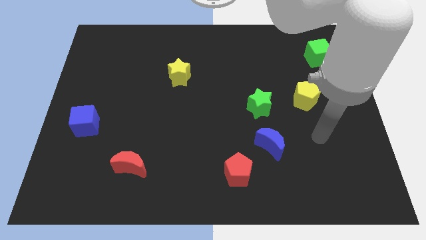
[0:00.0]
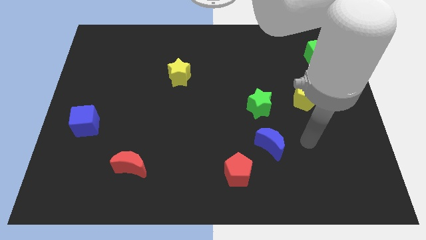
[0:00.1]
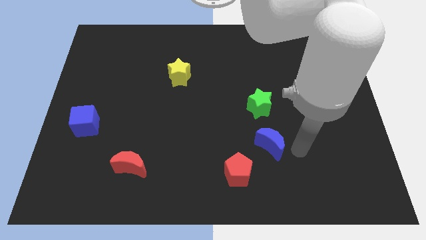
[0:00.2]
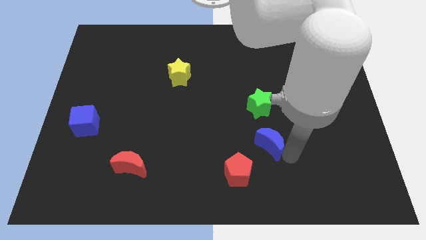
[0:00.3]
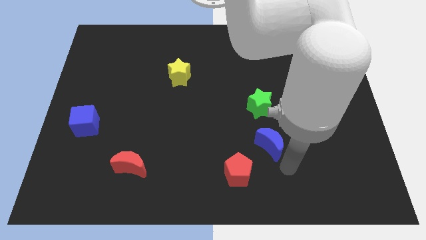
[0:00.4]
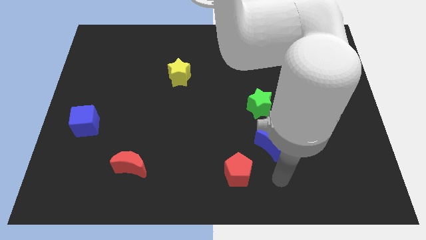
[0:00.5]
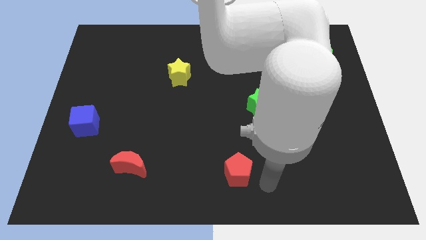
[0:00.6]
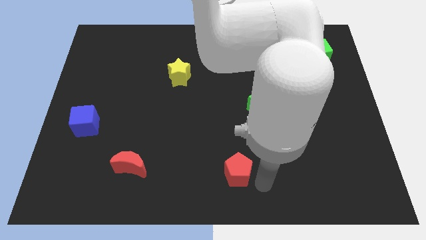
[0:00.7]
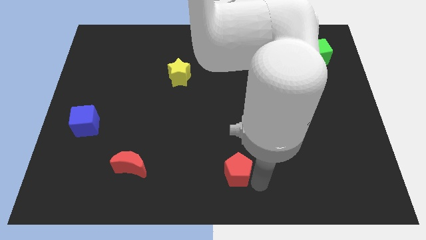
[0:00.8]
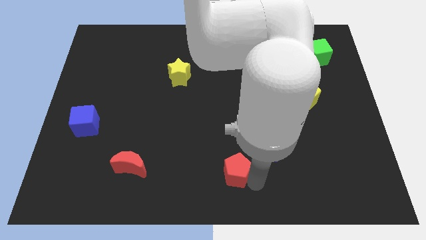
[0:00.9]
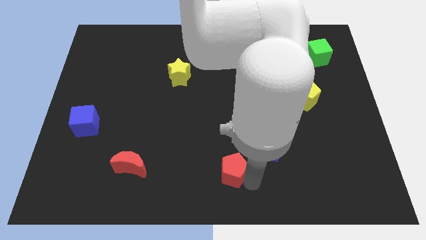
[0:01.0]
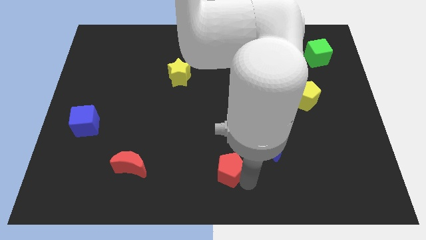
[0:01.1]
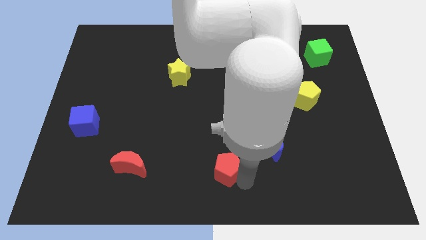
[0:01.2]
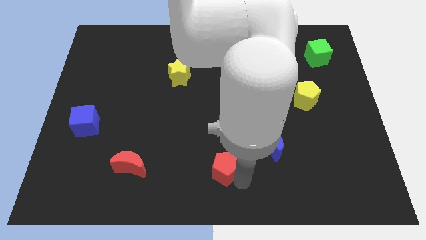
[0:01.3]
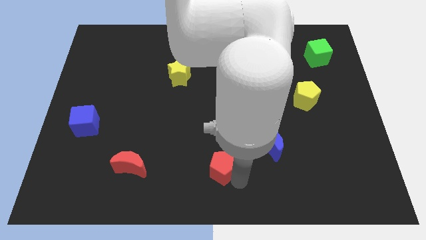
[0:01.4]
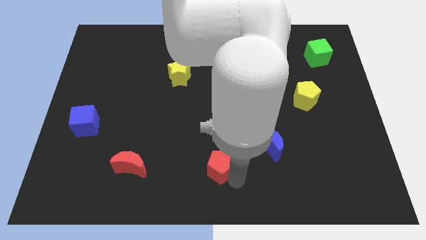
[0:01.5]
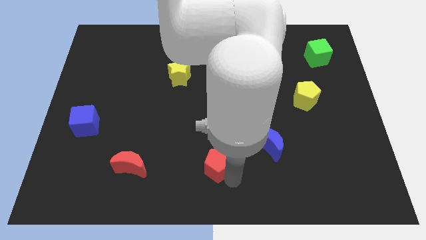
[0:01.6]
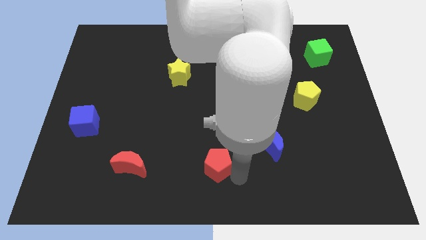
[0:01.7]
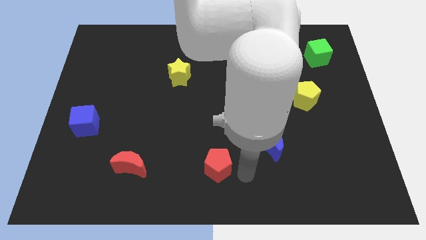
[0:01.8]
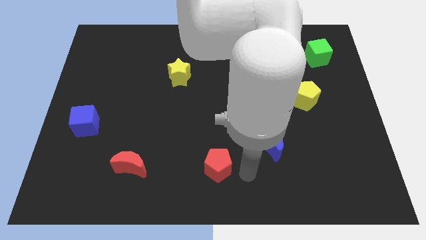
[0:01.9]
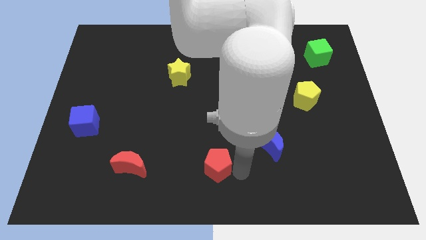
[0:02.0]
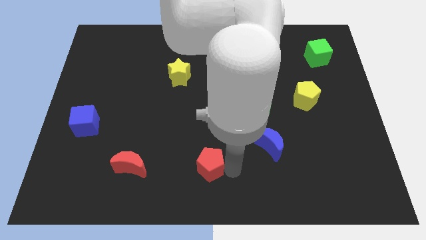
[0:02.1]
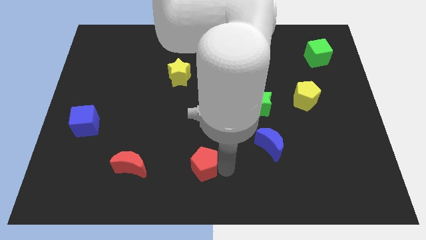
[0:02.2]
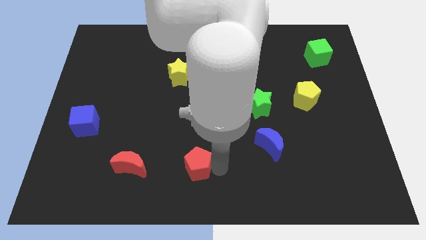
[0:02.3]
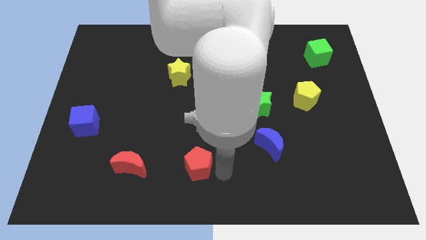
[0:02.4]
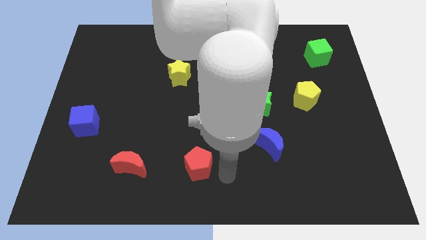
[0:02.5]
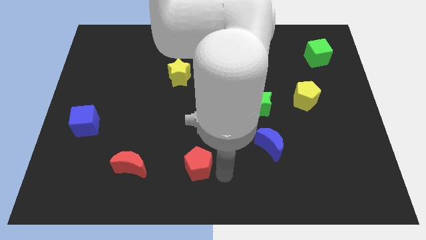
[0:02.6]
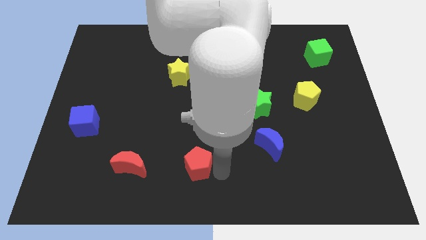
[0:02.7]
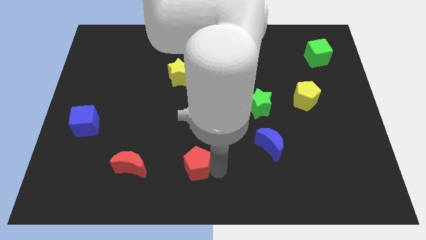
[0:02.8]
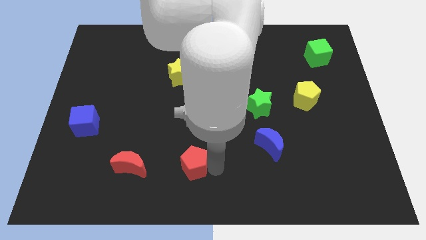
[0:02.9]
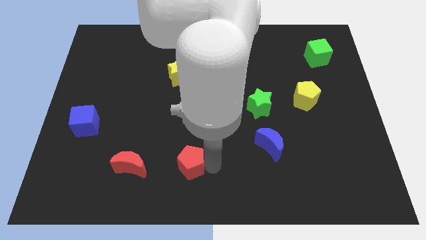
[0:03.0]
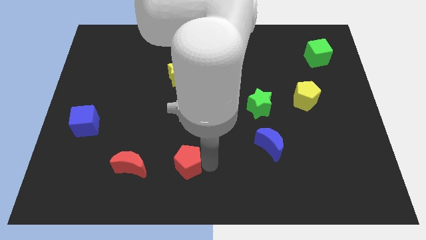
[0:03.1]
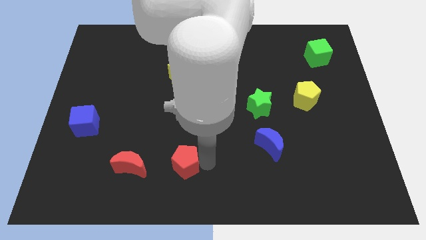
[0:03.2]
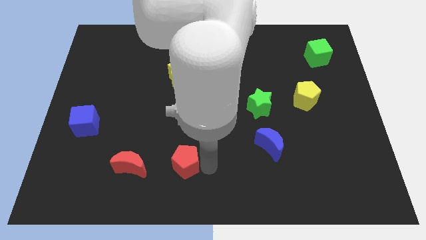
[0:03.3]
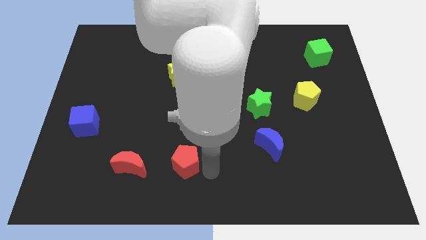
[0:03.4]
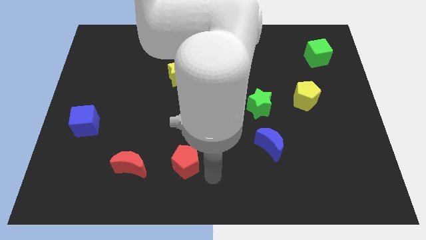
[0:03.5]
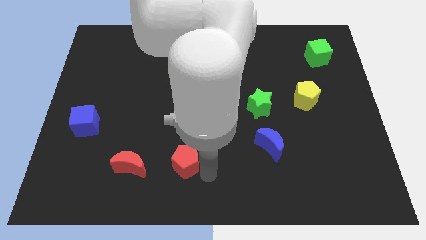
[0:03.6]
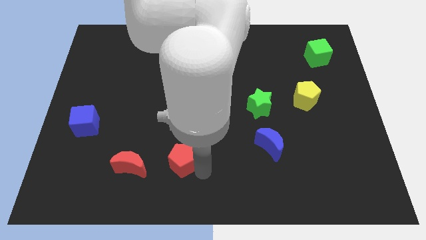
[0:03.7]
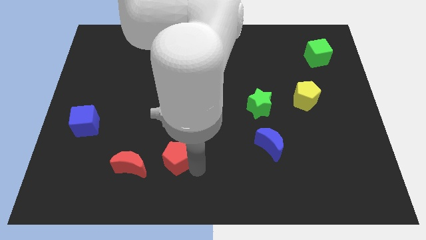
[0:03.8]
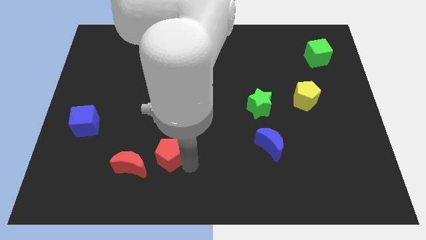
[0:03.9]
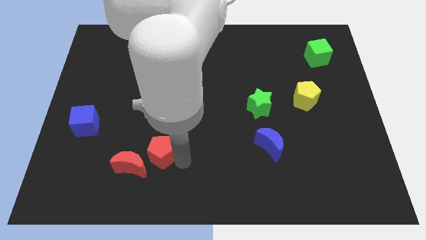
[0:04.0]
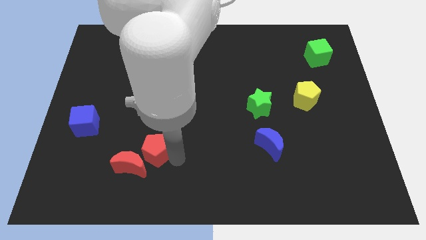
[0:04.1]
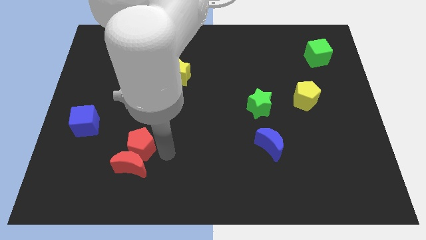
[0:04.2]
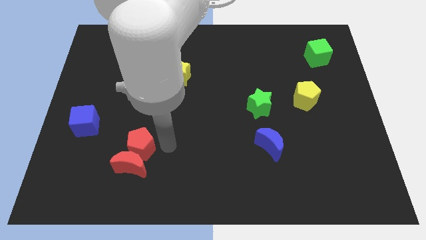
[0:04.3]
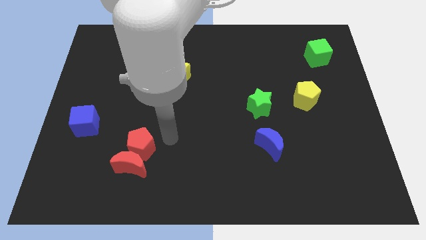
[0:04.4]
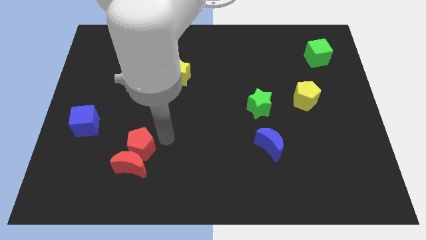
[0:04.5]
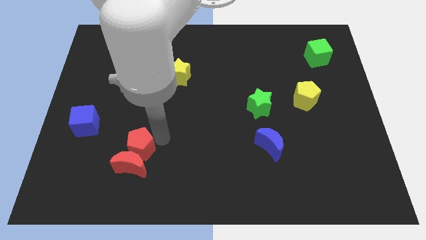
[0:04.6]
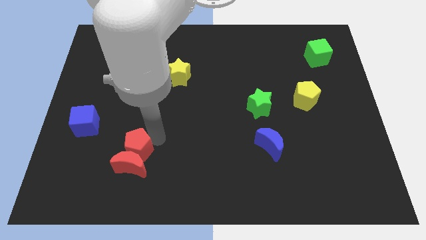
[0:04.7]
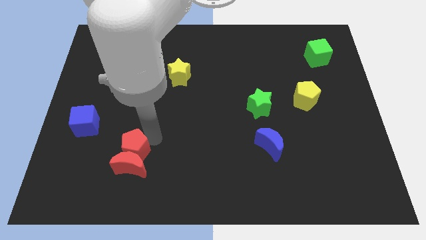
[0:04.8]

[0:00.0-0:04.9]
push the red pentagon left

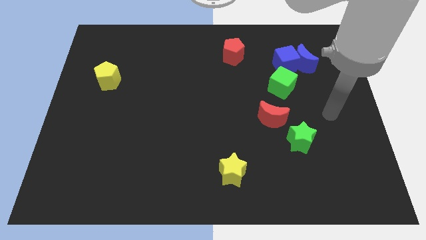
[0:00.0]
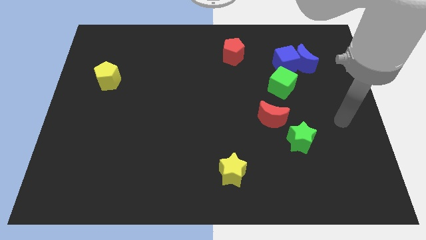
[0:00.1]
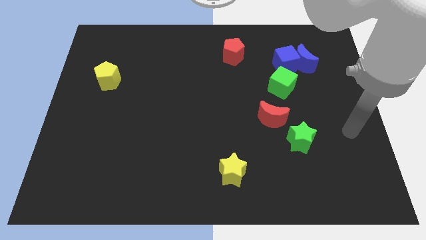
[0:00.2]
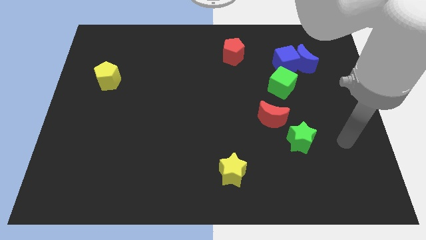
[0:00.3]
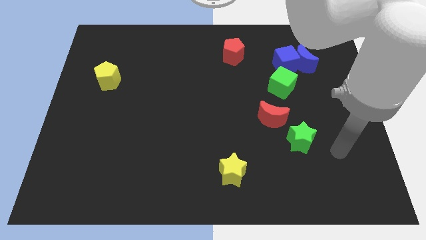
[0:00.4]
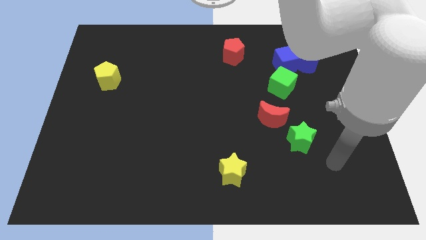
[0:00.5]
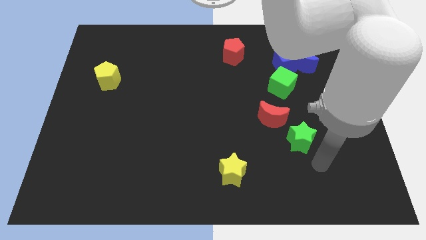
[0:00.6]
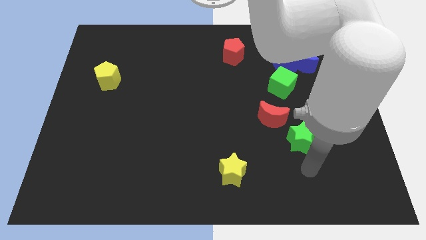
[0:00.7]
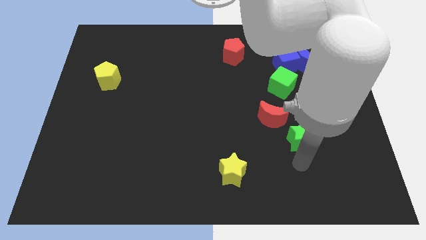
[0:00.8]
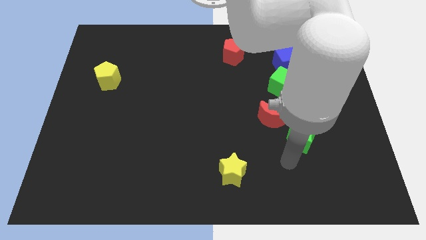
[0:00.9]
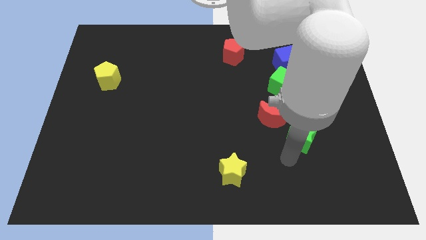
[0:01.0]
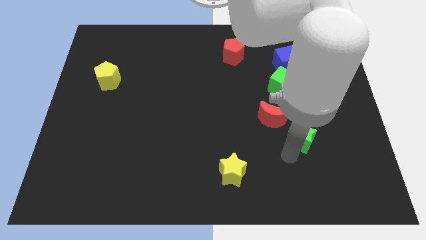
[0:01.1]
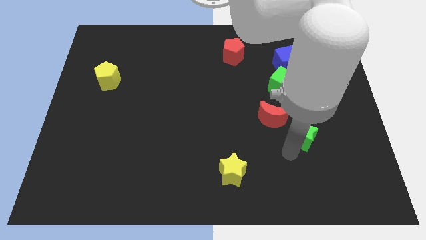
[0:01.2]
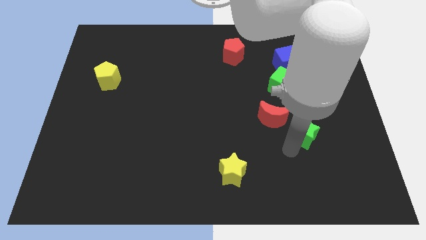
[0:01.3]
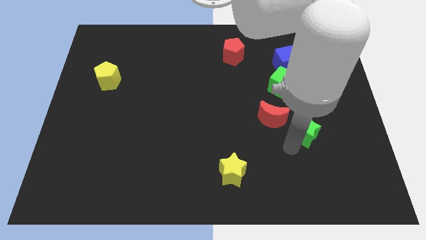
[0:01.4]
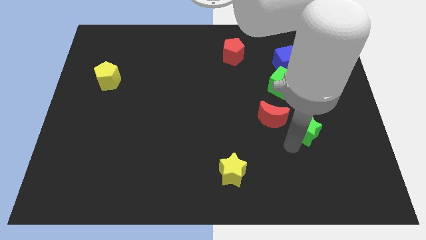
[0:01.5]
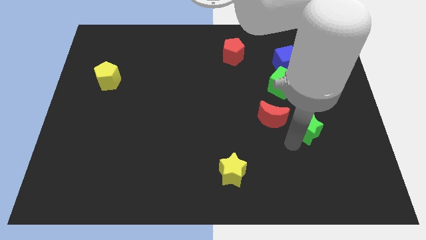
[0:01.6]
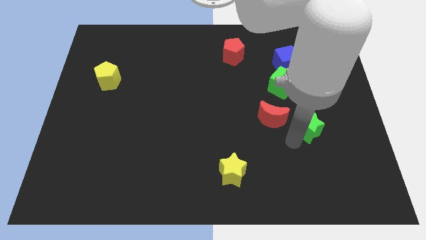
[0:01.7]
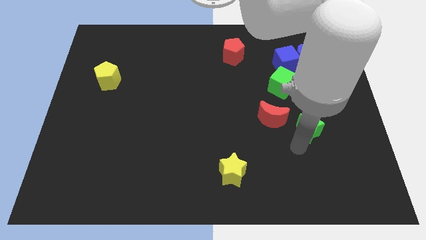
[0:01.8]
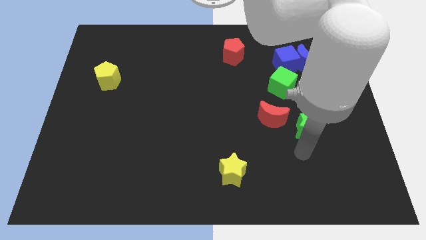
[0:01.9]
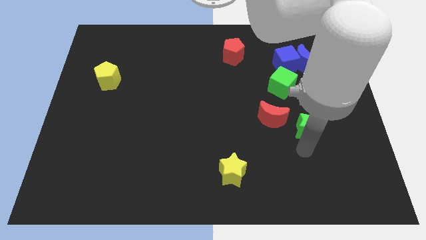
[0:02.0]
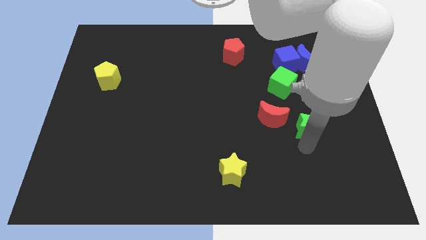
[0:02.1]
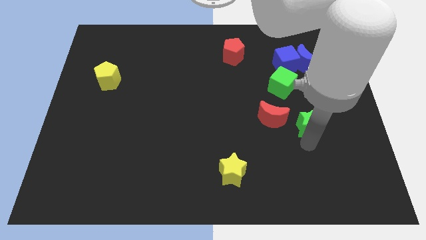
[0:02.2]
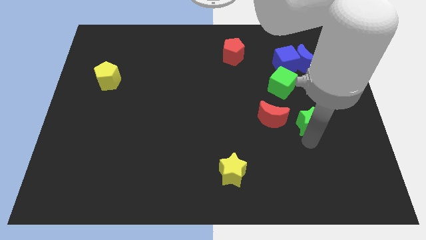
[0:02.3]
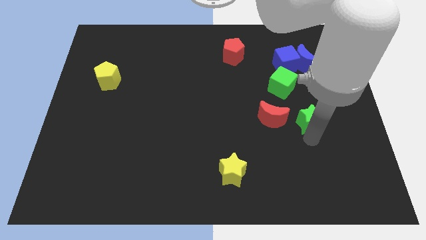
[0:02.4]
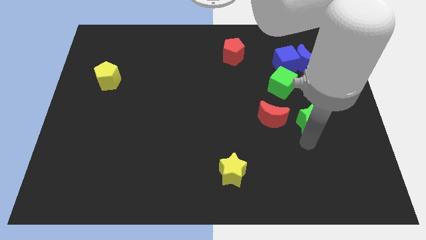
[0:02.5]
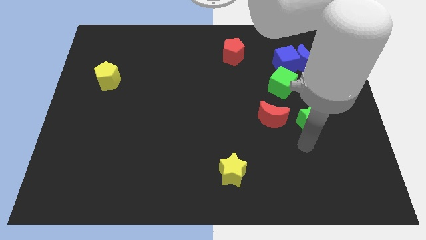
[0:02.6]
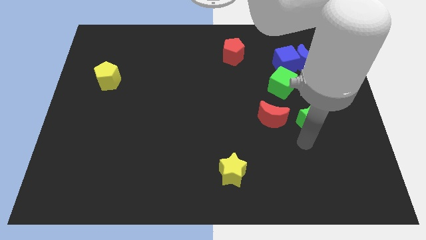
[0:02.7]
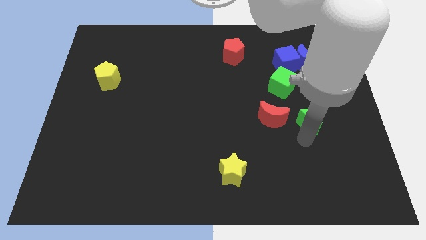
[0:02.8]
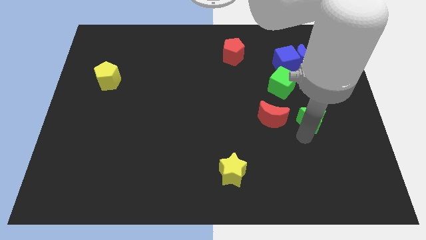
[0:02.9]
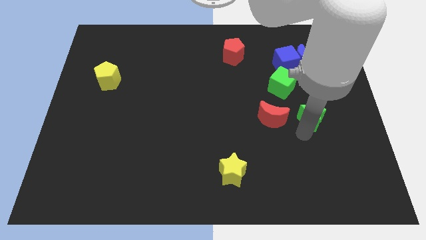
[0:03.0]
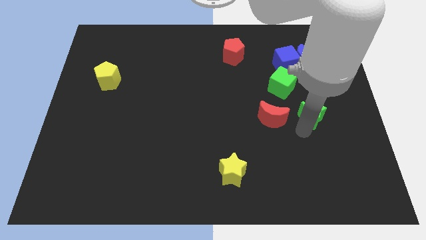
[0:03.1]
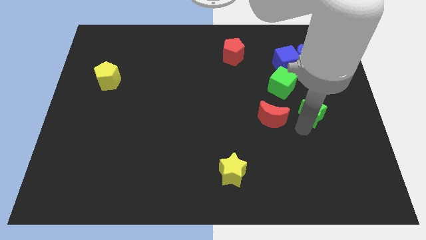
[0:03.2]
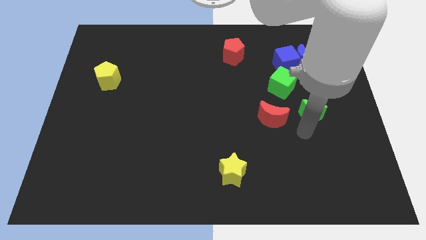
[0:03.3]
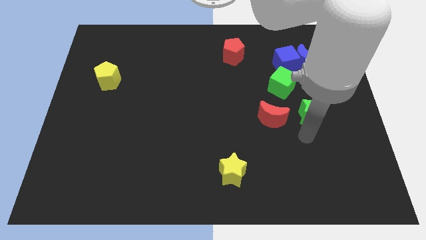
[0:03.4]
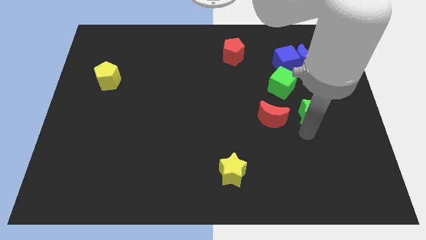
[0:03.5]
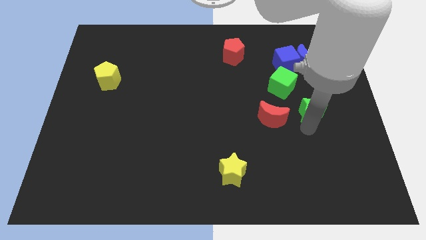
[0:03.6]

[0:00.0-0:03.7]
slightly move the green star up
